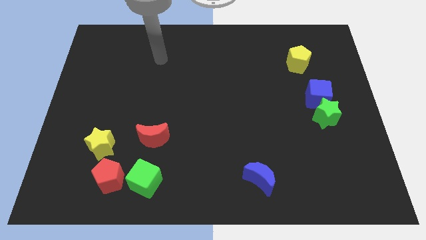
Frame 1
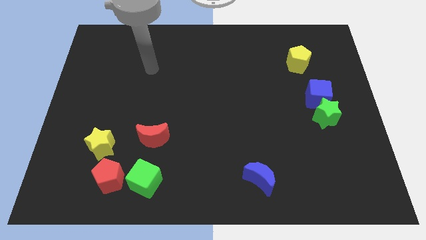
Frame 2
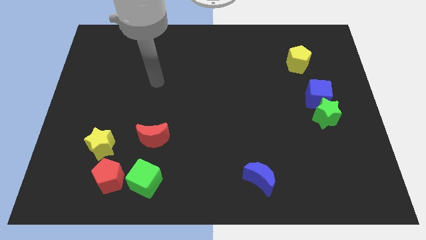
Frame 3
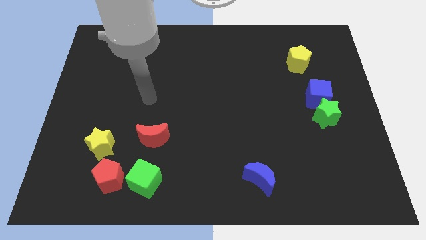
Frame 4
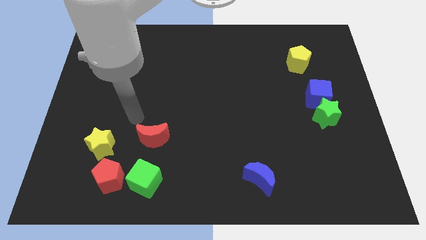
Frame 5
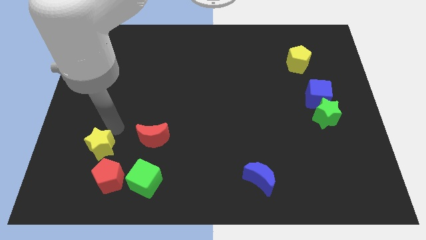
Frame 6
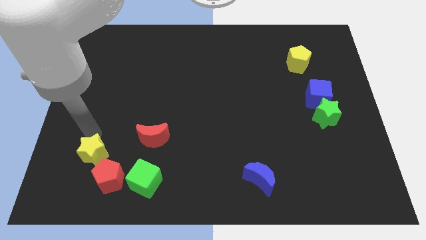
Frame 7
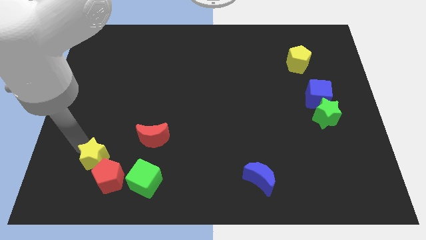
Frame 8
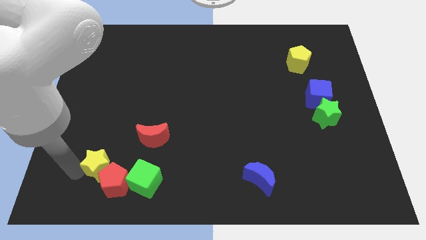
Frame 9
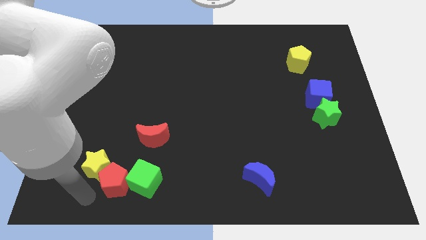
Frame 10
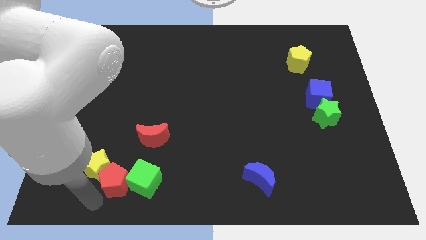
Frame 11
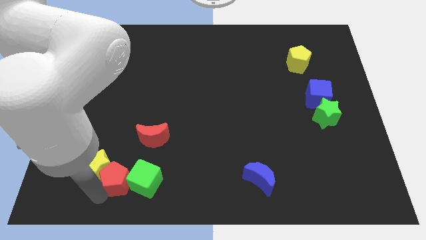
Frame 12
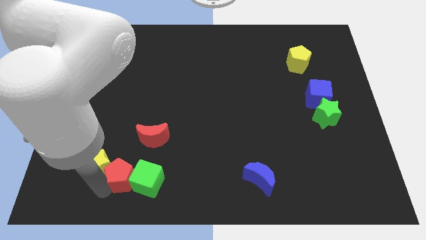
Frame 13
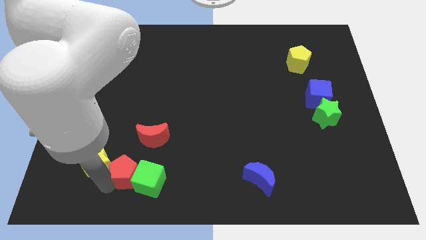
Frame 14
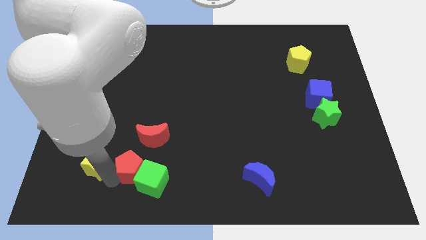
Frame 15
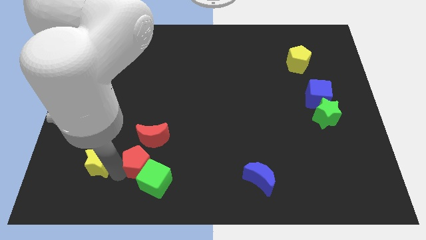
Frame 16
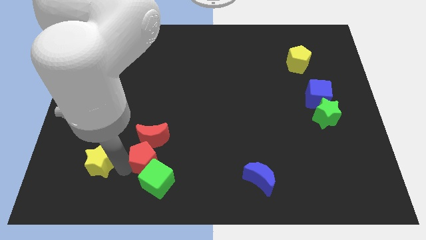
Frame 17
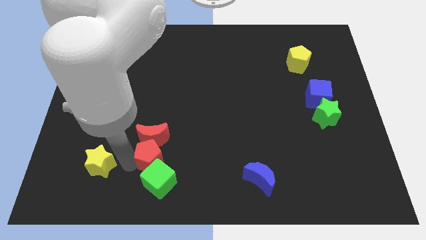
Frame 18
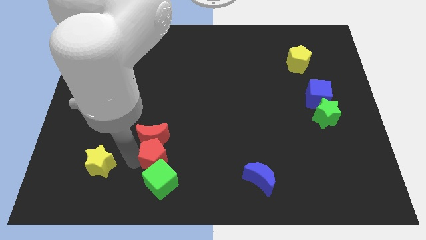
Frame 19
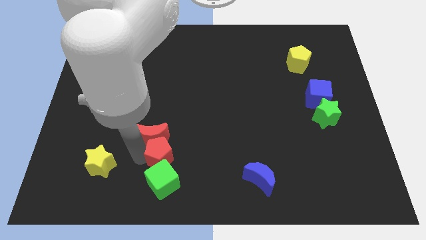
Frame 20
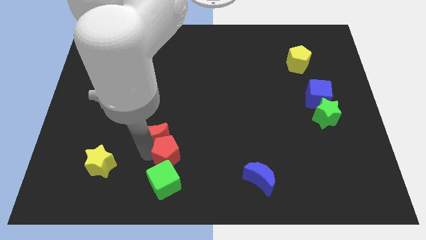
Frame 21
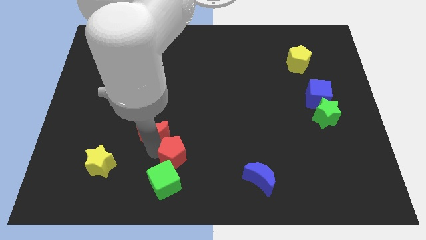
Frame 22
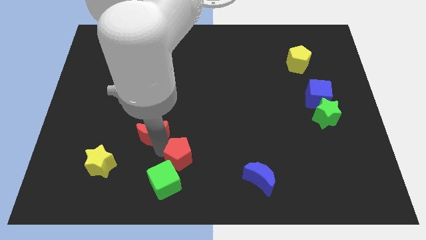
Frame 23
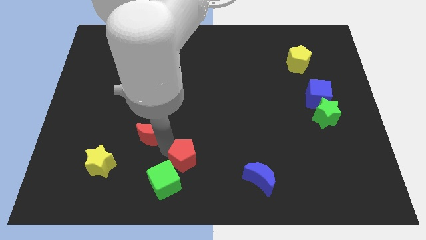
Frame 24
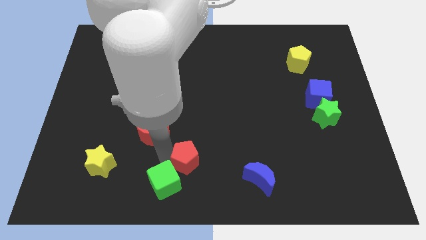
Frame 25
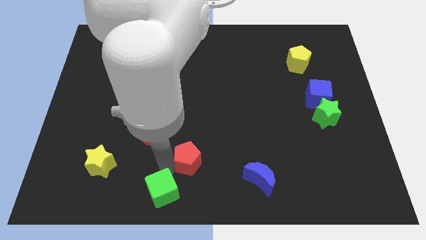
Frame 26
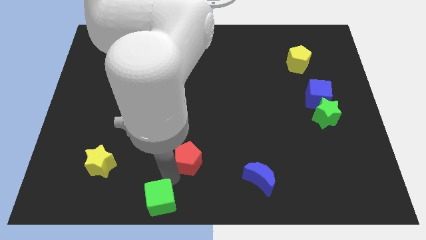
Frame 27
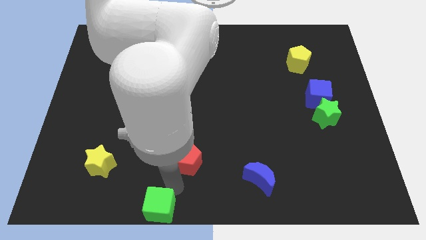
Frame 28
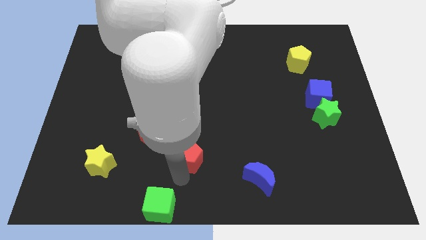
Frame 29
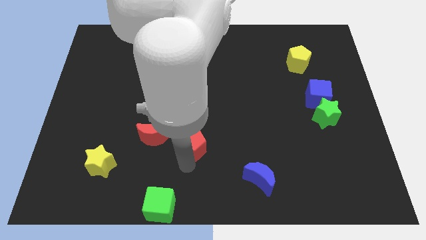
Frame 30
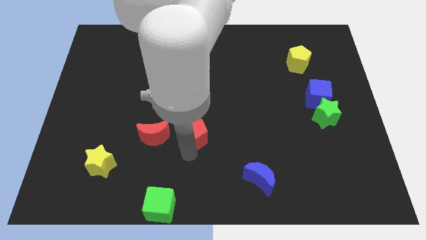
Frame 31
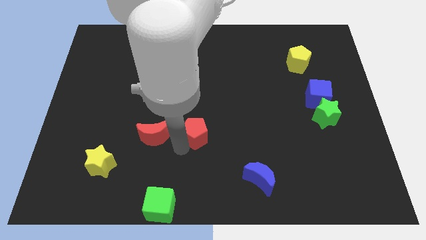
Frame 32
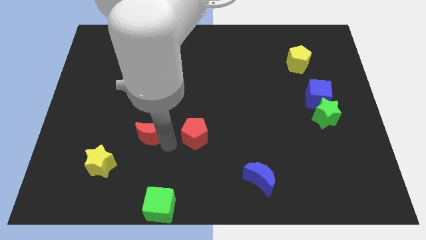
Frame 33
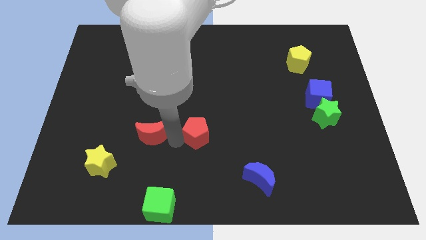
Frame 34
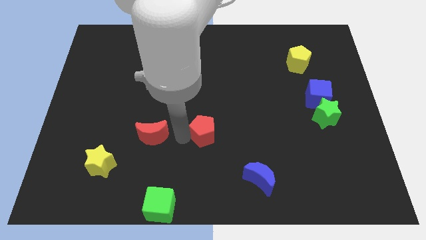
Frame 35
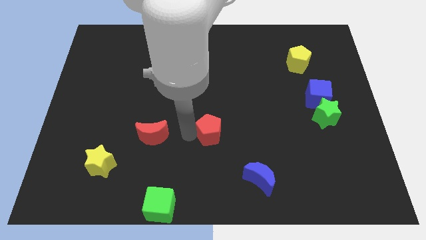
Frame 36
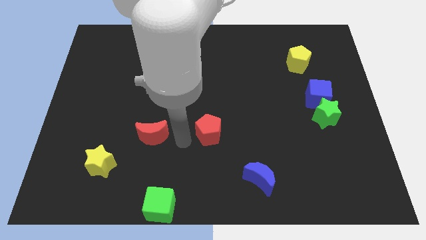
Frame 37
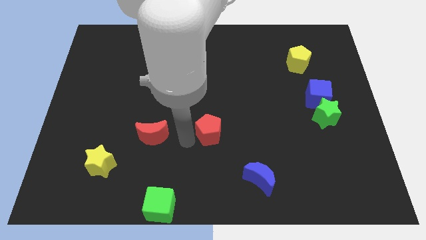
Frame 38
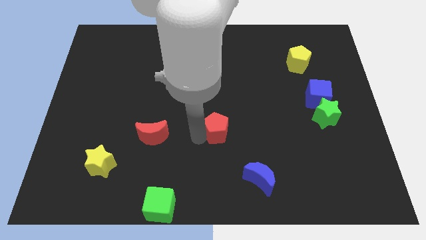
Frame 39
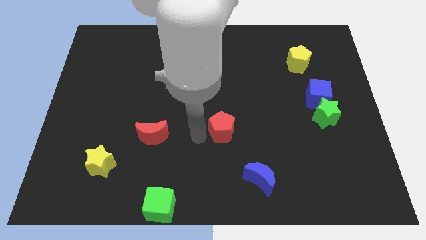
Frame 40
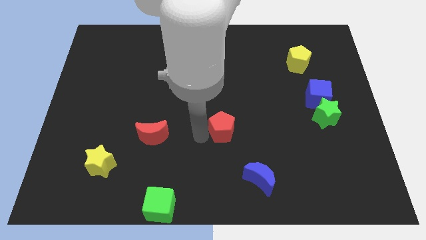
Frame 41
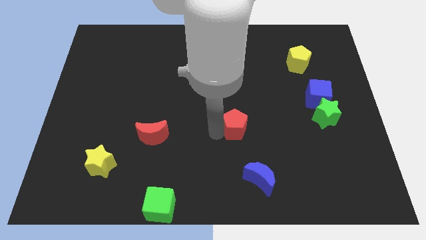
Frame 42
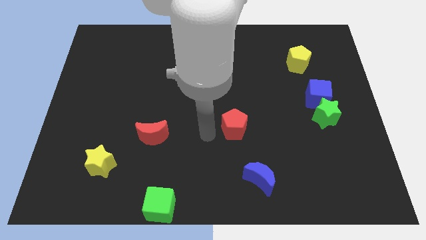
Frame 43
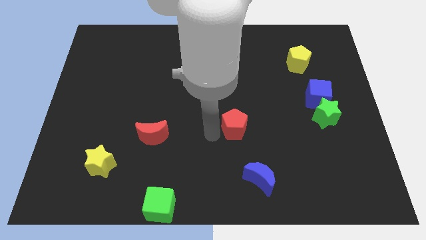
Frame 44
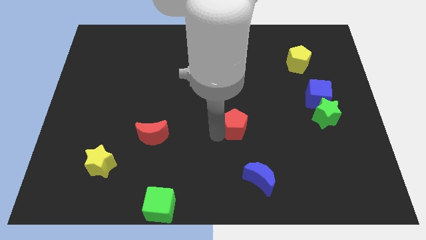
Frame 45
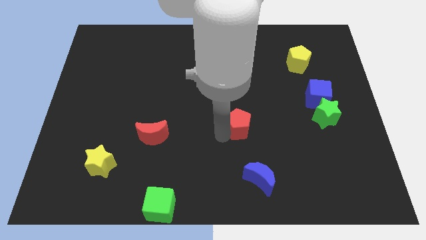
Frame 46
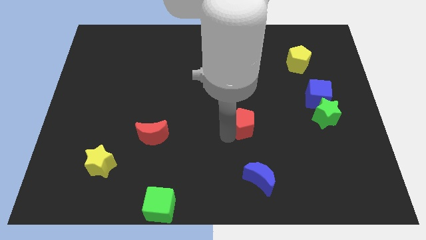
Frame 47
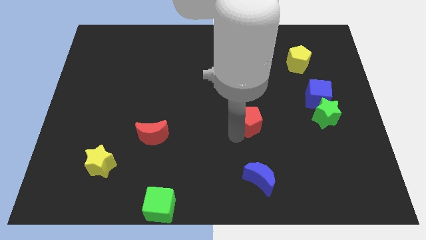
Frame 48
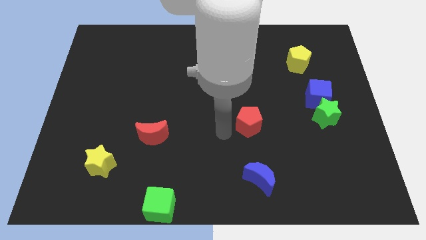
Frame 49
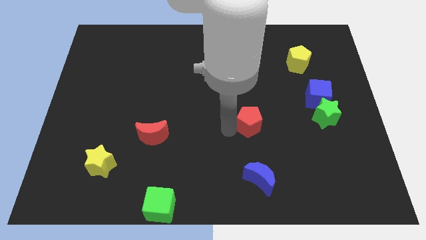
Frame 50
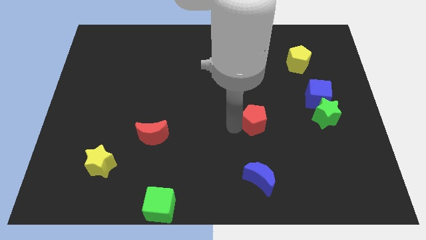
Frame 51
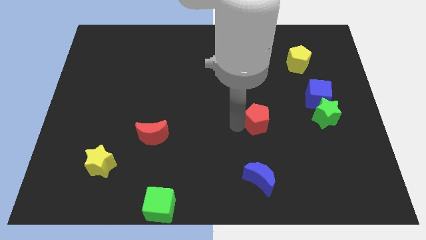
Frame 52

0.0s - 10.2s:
slide the red pentagon to the left of the green star

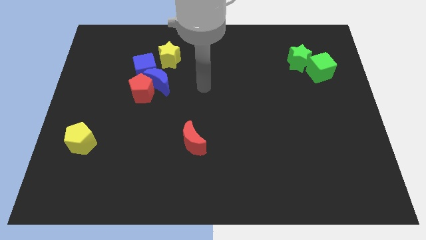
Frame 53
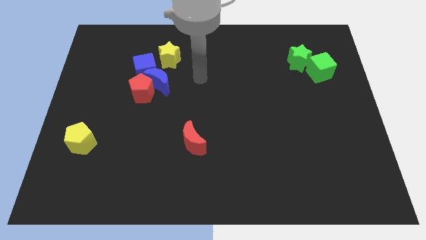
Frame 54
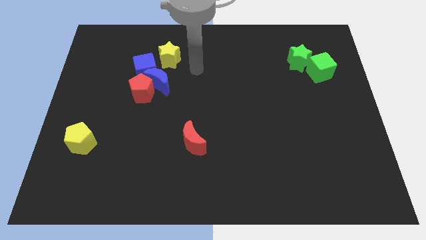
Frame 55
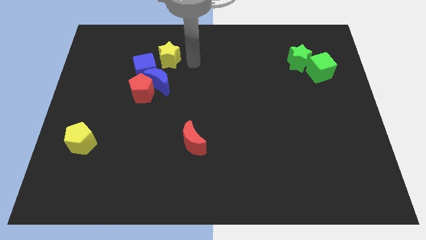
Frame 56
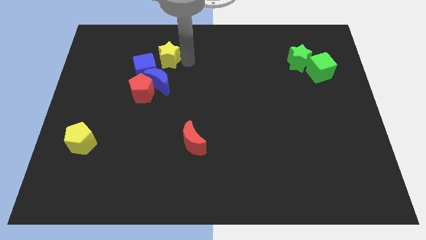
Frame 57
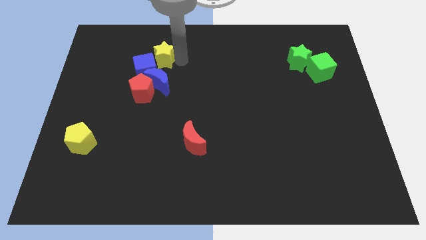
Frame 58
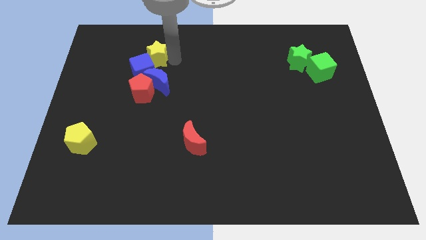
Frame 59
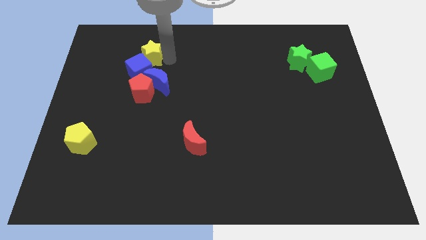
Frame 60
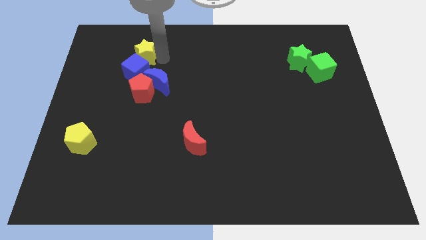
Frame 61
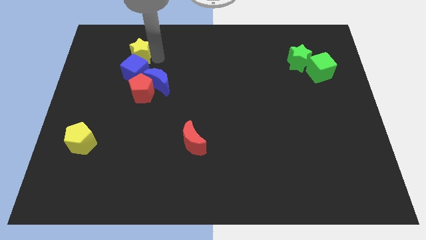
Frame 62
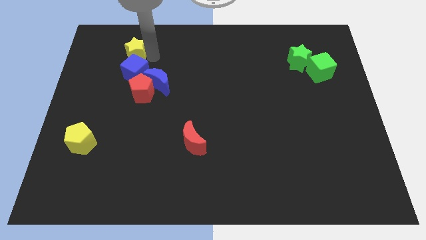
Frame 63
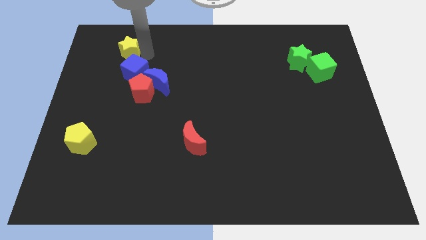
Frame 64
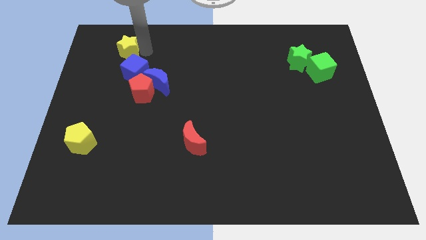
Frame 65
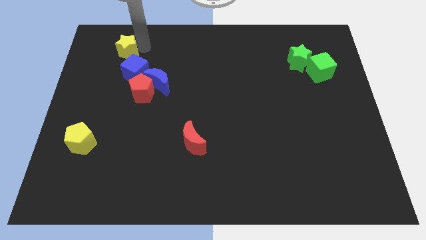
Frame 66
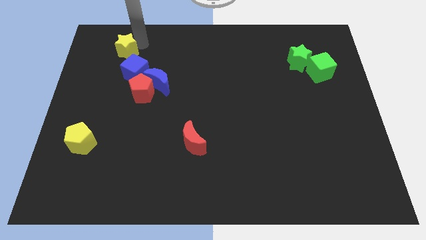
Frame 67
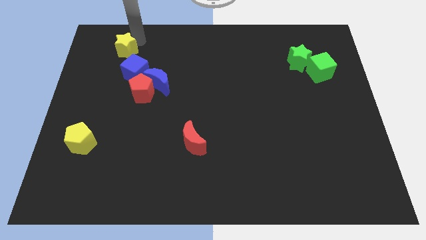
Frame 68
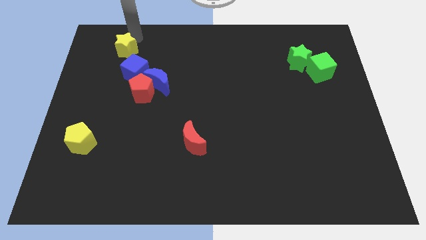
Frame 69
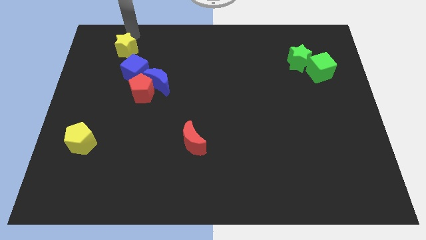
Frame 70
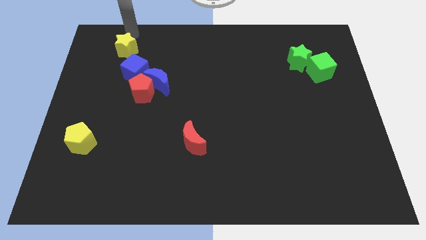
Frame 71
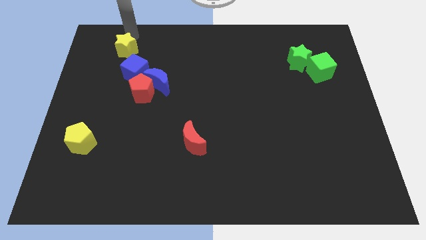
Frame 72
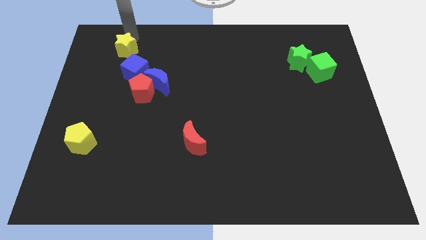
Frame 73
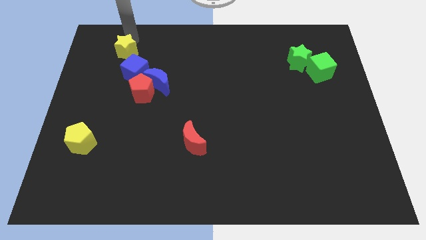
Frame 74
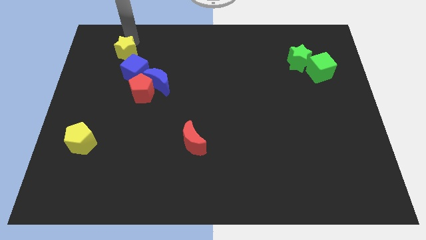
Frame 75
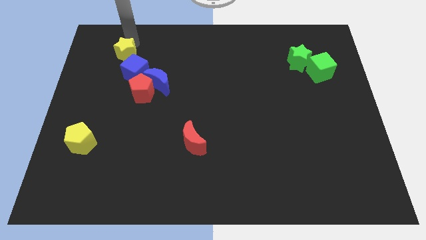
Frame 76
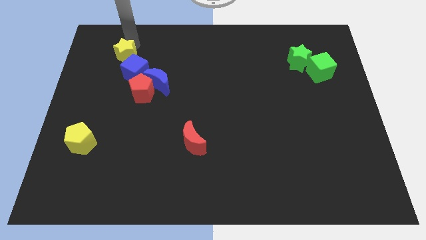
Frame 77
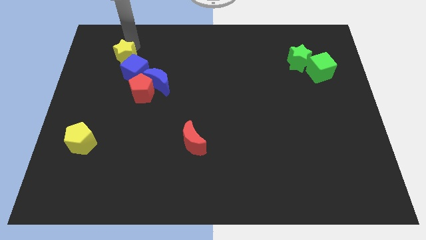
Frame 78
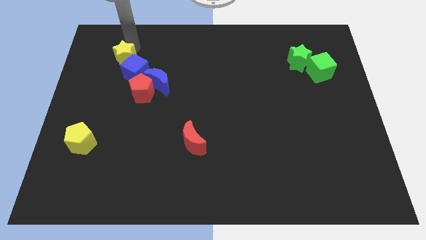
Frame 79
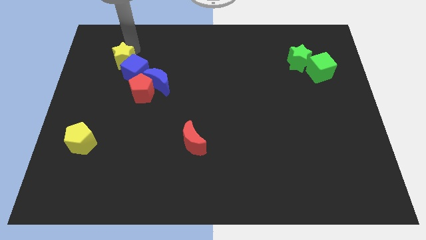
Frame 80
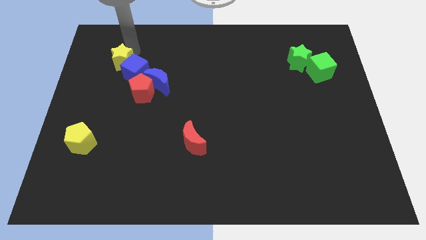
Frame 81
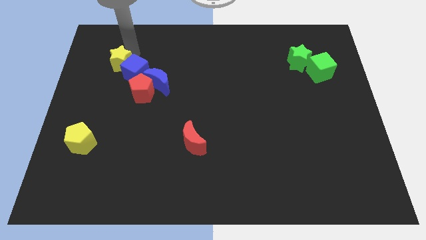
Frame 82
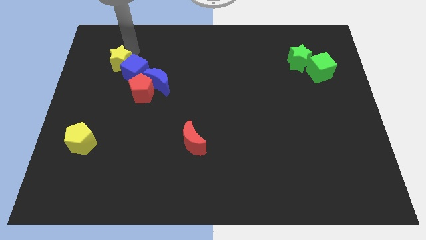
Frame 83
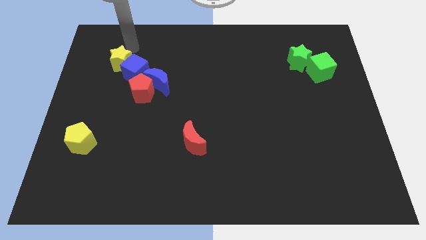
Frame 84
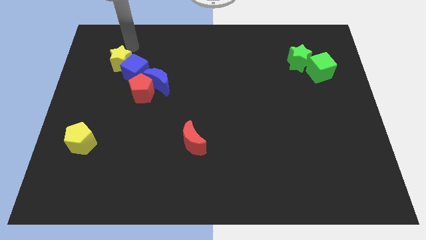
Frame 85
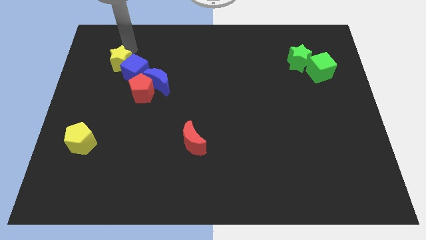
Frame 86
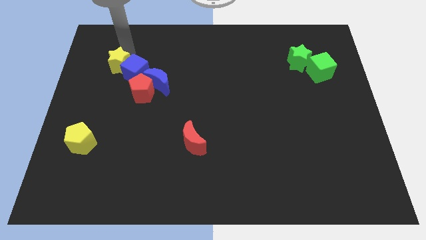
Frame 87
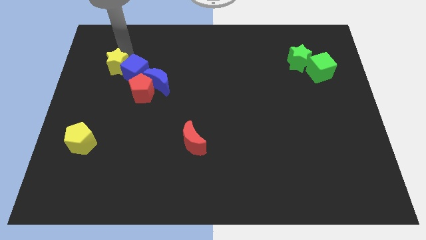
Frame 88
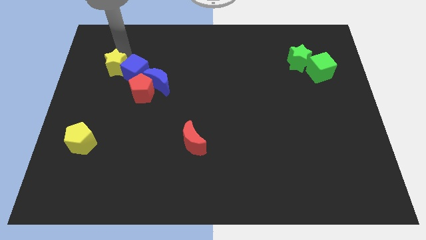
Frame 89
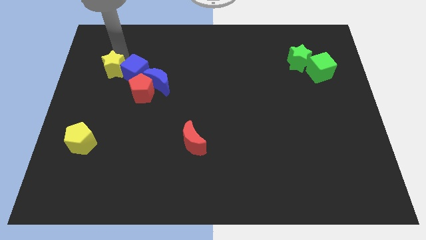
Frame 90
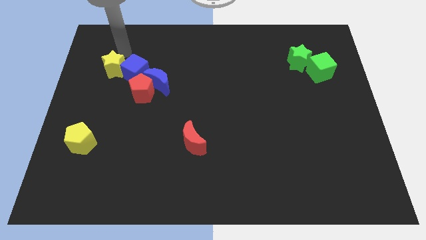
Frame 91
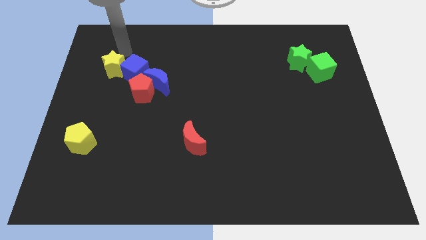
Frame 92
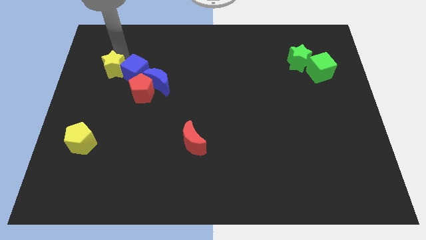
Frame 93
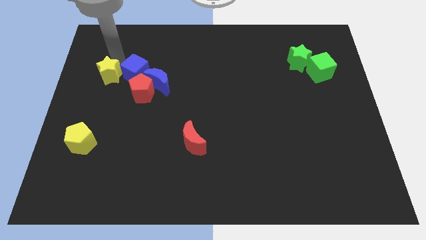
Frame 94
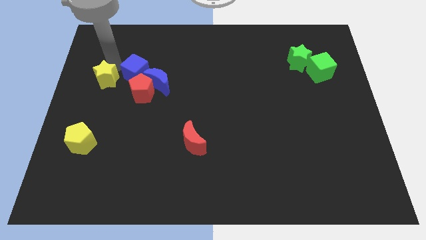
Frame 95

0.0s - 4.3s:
push the yellow star to the left of the red pentagon
